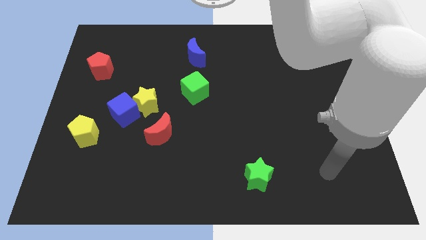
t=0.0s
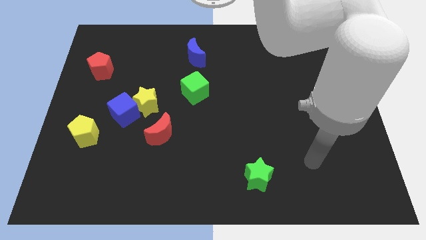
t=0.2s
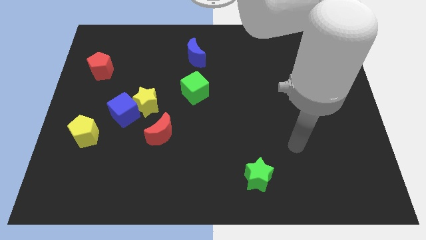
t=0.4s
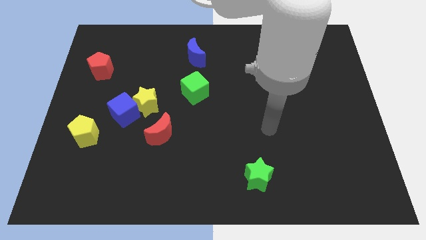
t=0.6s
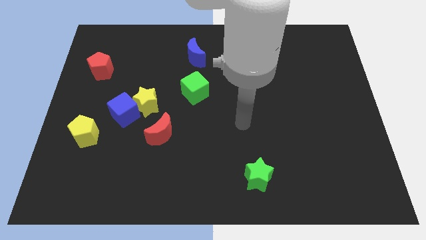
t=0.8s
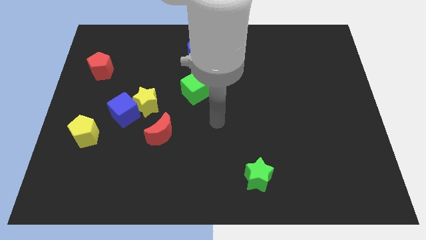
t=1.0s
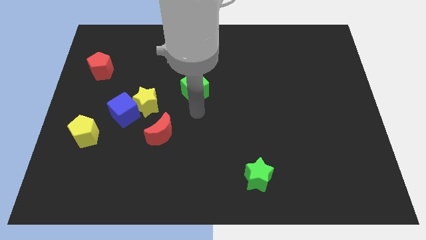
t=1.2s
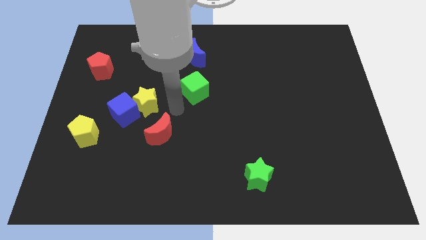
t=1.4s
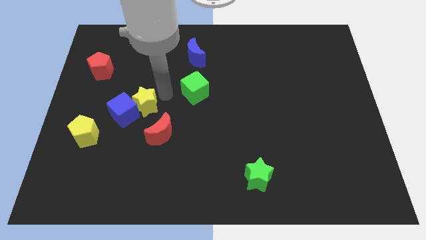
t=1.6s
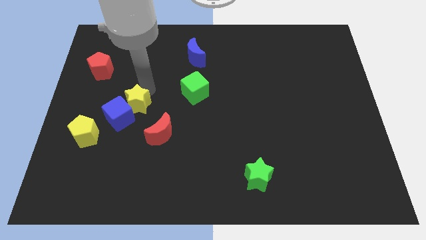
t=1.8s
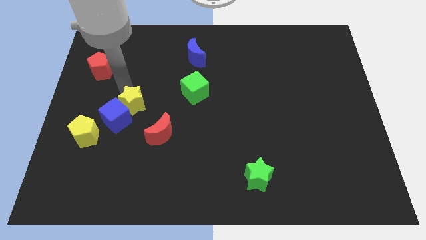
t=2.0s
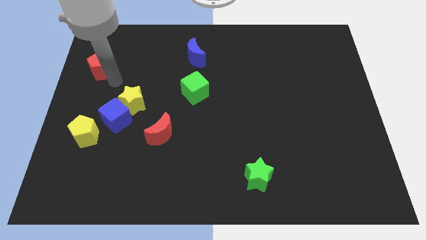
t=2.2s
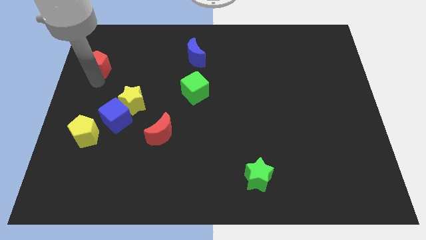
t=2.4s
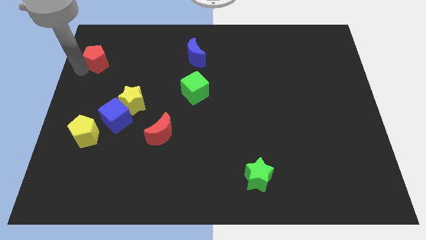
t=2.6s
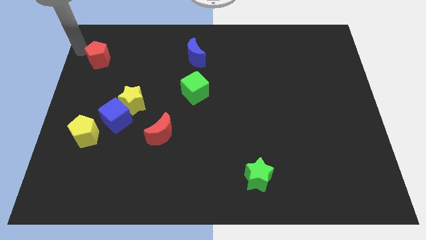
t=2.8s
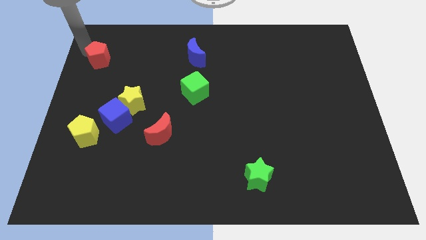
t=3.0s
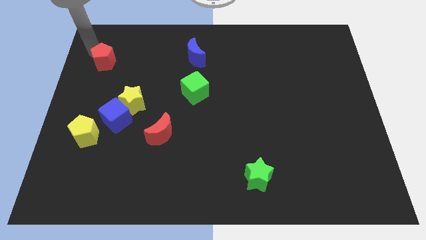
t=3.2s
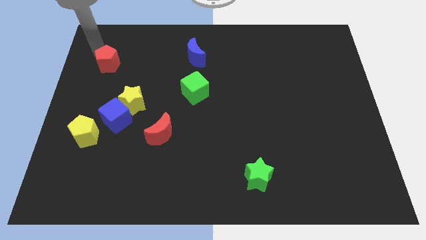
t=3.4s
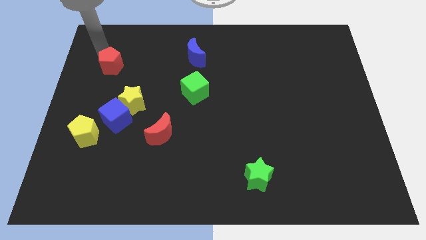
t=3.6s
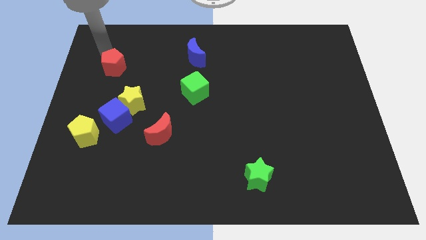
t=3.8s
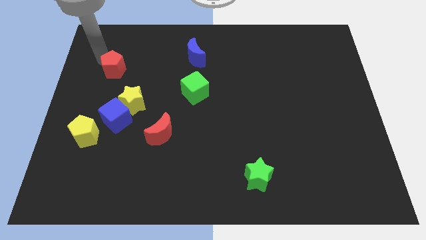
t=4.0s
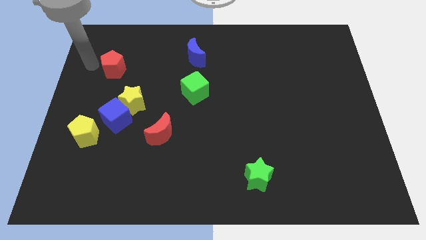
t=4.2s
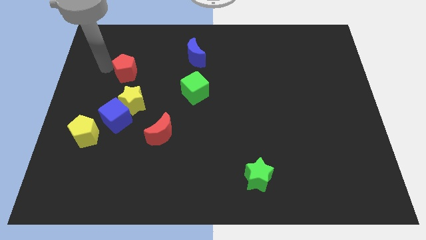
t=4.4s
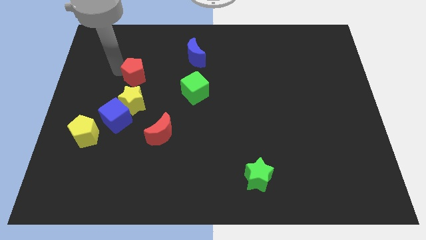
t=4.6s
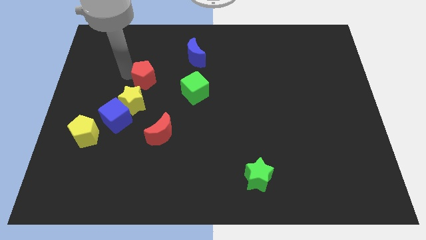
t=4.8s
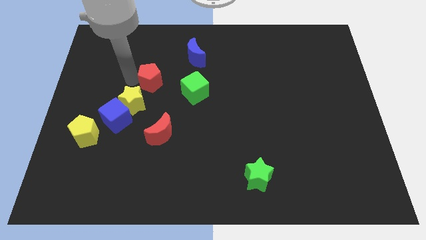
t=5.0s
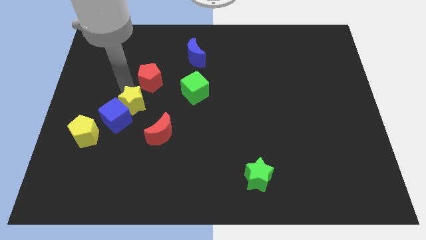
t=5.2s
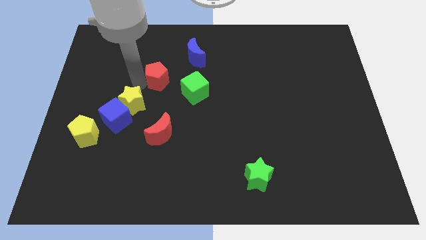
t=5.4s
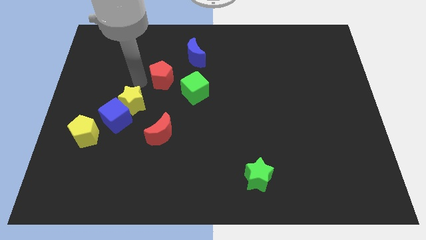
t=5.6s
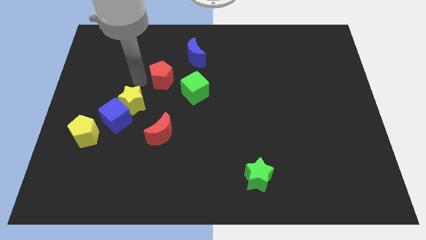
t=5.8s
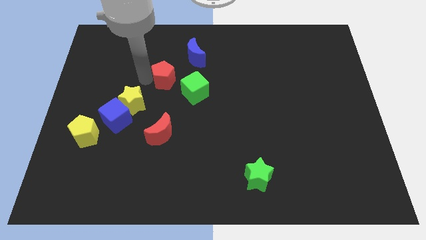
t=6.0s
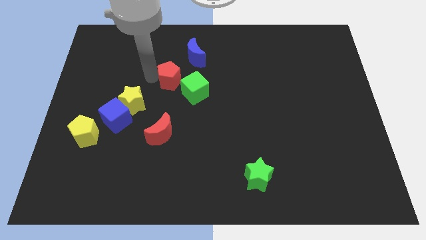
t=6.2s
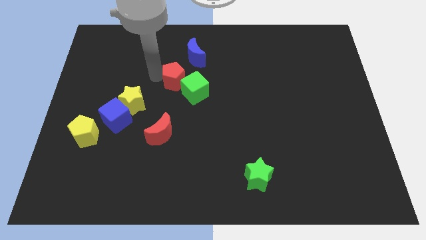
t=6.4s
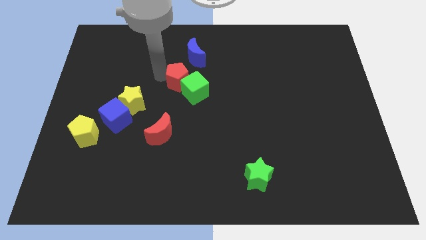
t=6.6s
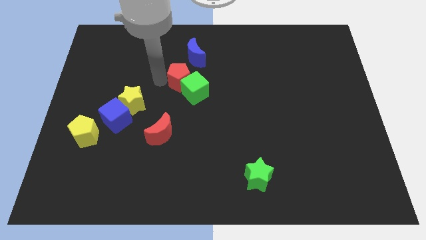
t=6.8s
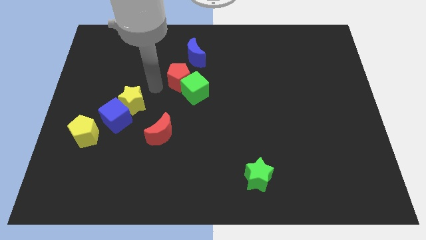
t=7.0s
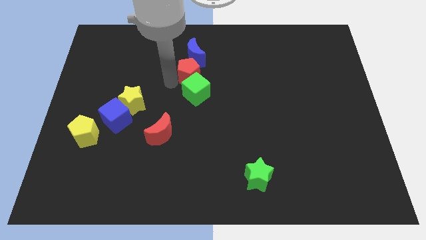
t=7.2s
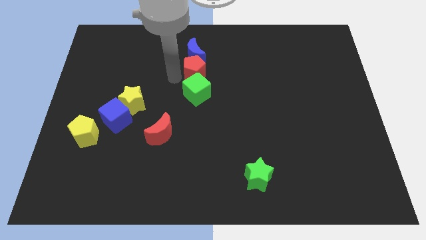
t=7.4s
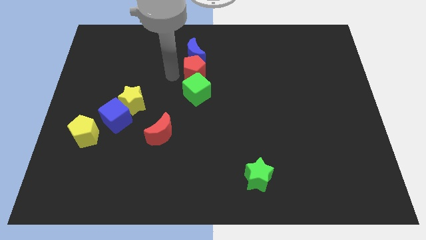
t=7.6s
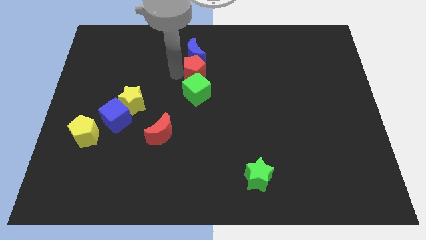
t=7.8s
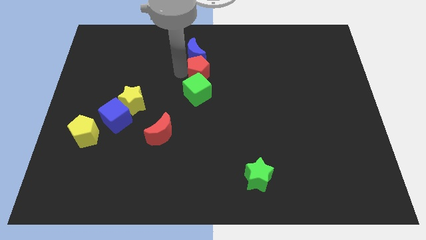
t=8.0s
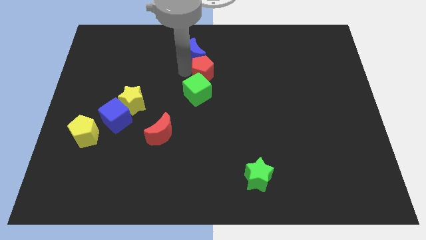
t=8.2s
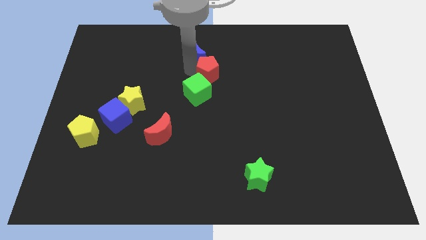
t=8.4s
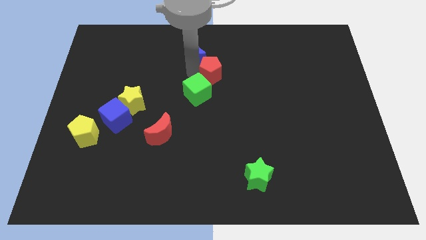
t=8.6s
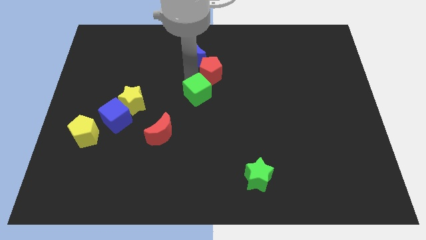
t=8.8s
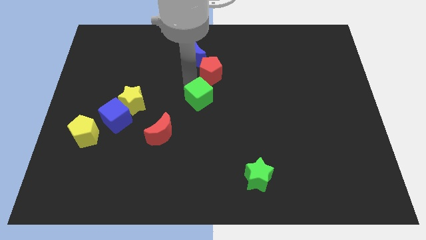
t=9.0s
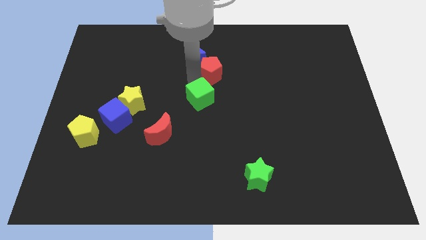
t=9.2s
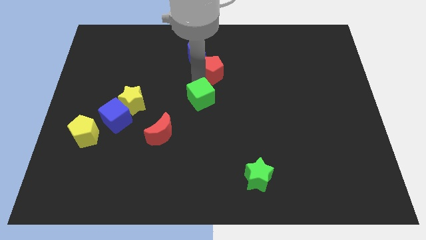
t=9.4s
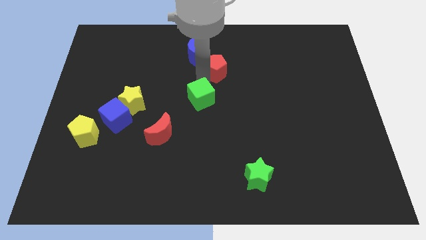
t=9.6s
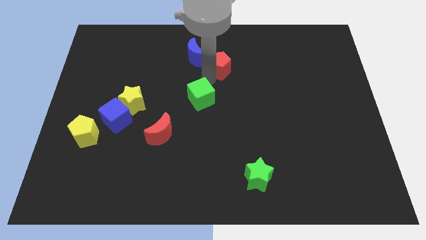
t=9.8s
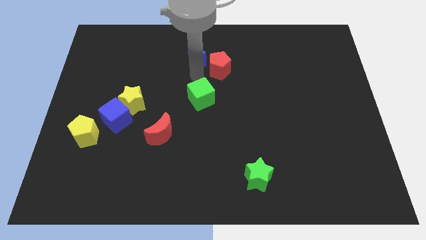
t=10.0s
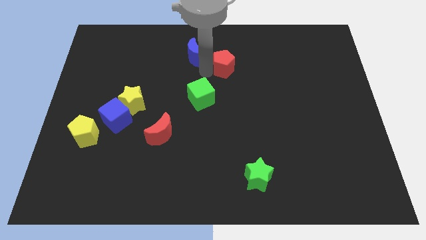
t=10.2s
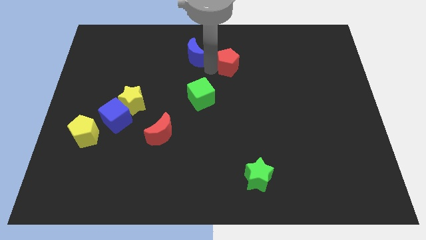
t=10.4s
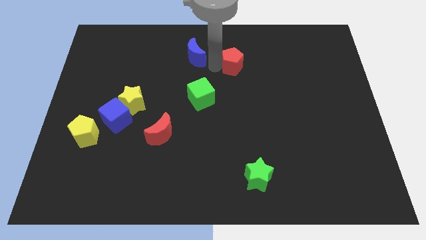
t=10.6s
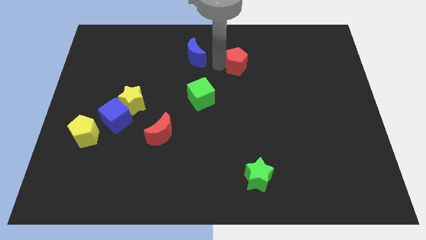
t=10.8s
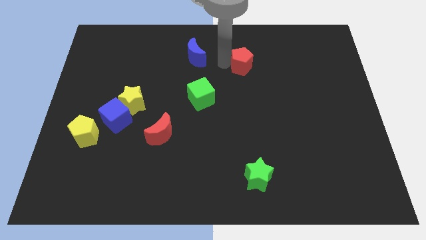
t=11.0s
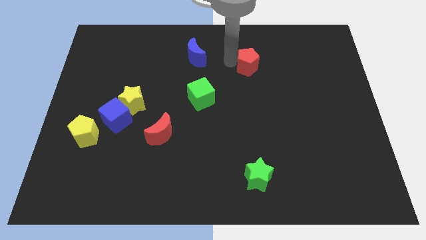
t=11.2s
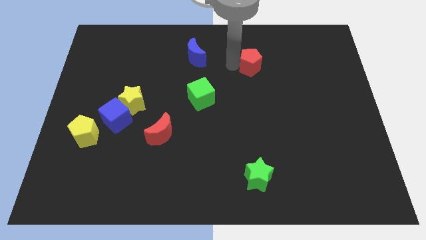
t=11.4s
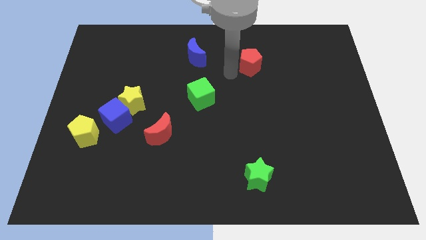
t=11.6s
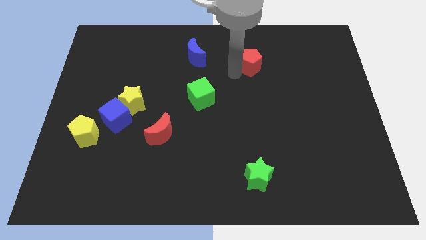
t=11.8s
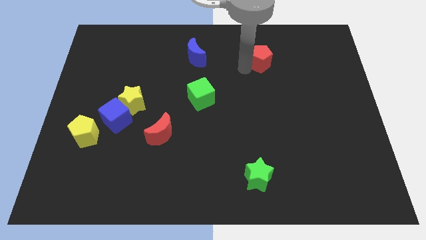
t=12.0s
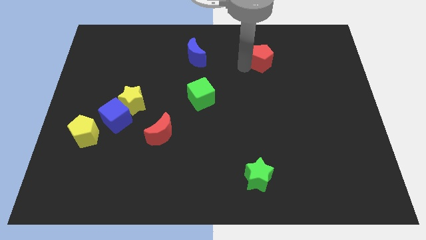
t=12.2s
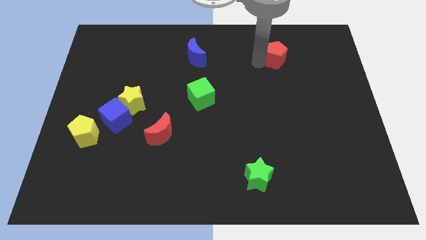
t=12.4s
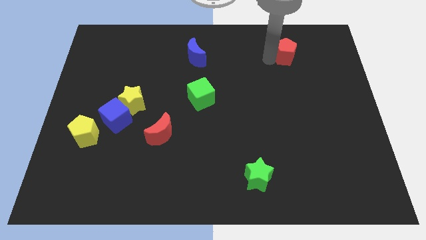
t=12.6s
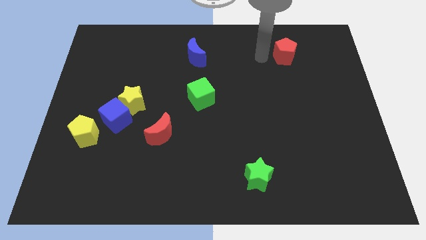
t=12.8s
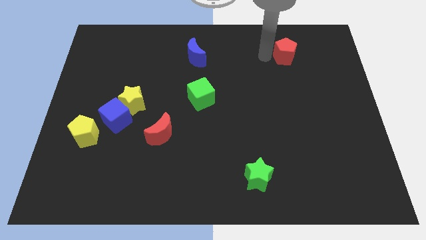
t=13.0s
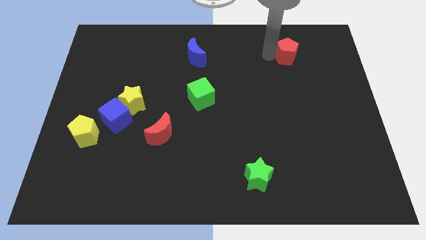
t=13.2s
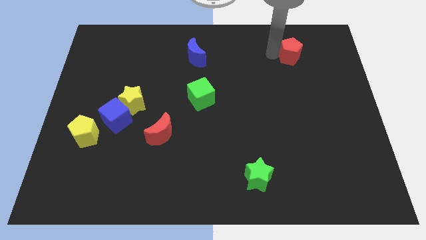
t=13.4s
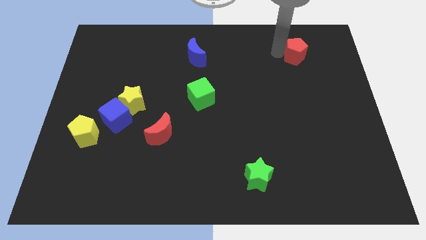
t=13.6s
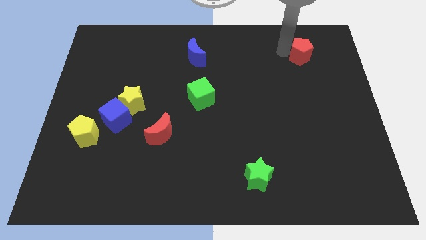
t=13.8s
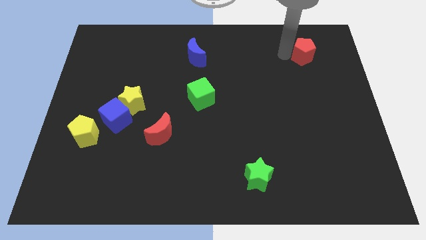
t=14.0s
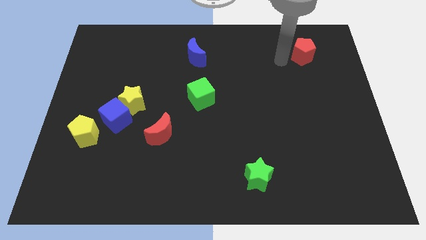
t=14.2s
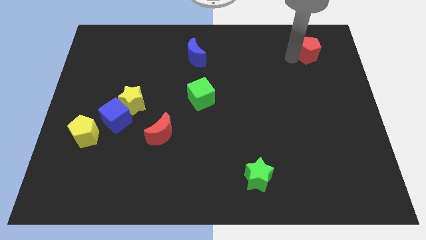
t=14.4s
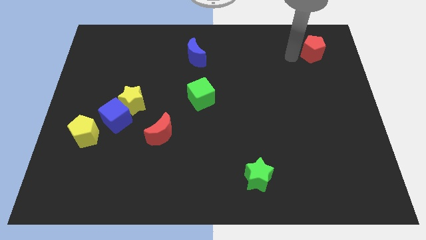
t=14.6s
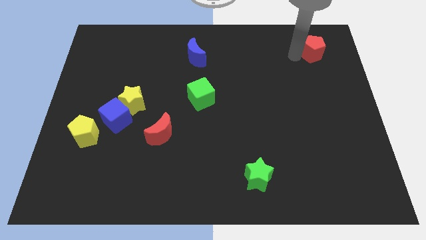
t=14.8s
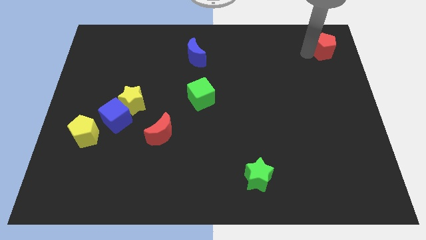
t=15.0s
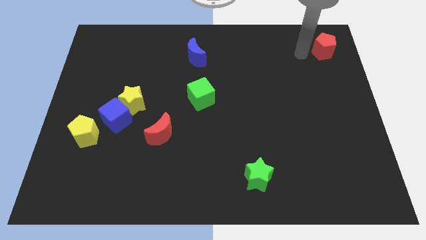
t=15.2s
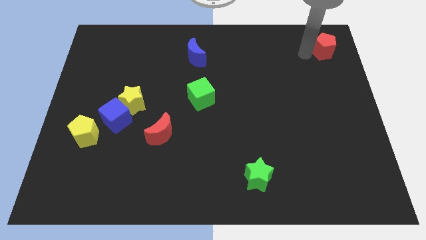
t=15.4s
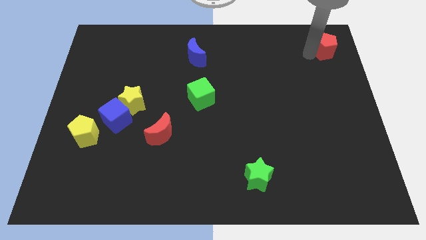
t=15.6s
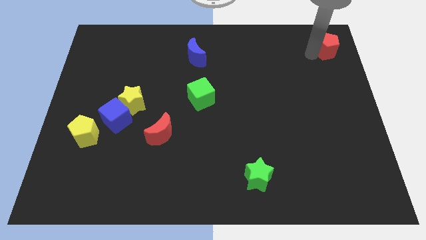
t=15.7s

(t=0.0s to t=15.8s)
put the red pentagon to the top right corner
